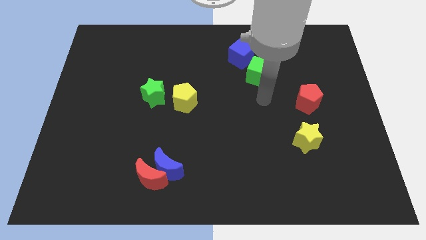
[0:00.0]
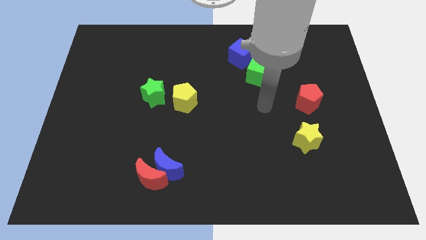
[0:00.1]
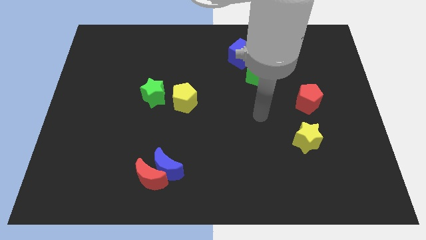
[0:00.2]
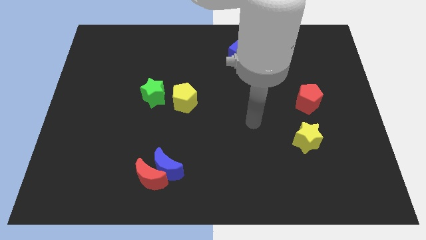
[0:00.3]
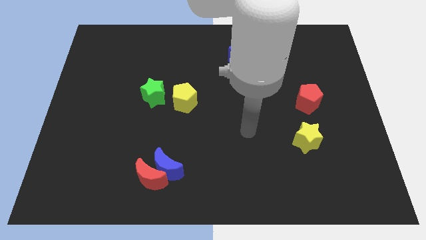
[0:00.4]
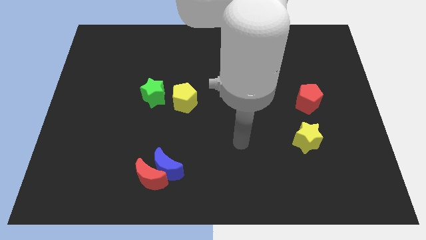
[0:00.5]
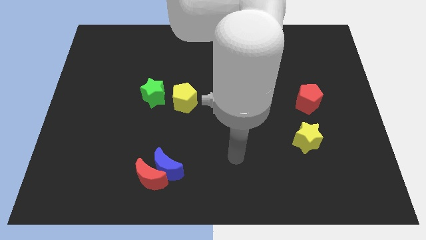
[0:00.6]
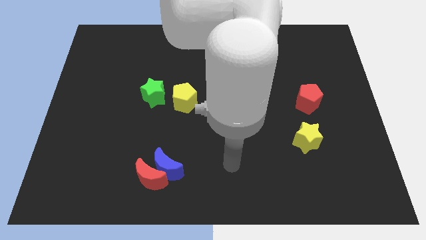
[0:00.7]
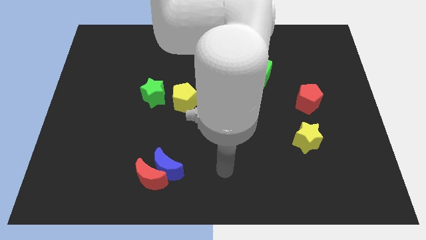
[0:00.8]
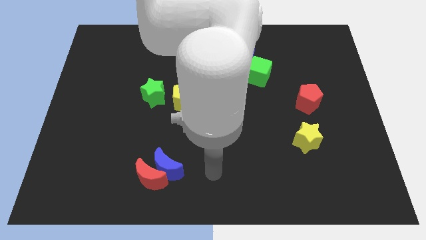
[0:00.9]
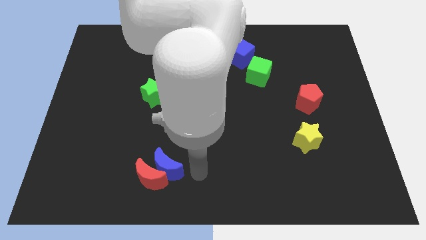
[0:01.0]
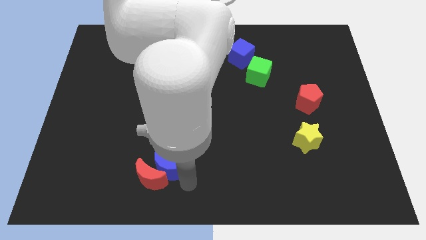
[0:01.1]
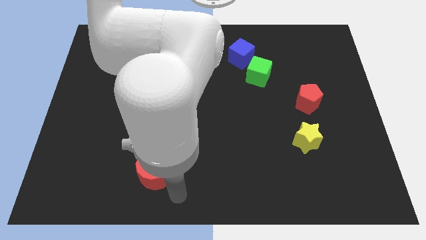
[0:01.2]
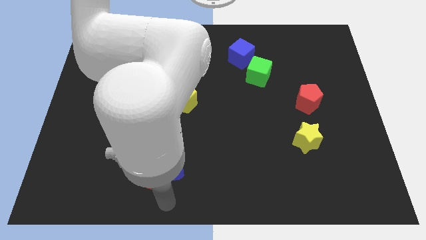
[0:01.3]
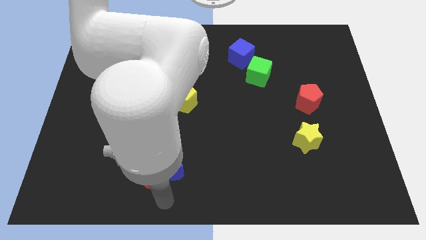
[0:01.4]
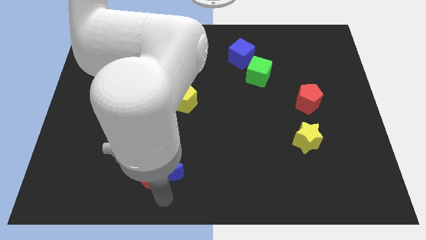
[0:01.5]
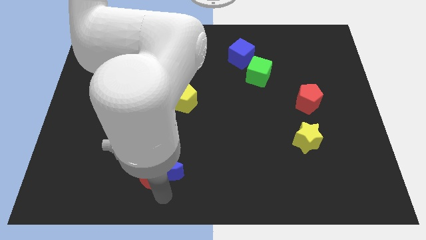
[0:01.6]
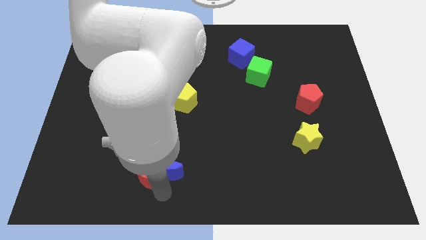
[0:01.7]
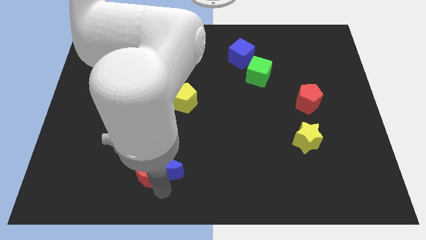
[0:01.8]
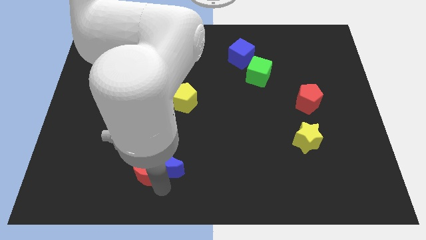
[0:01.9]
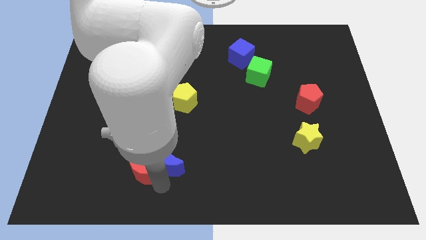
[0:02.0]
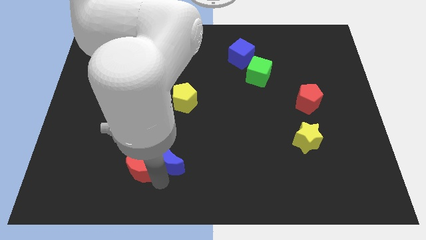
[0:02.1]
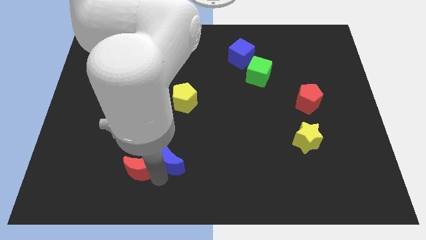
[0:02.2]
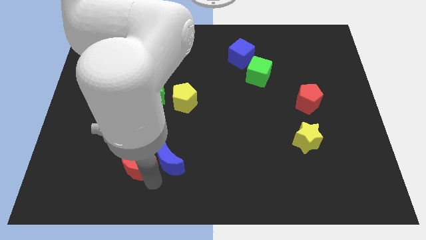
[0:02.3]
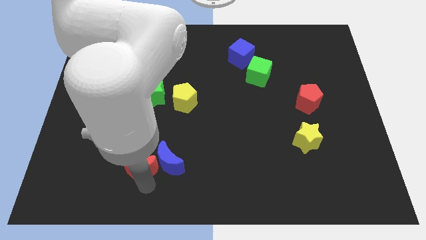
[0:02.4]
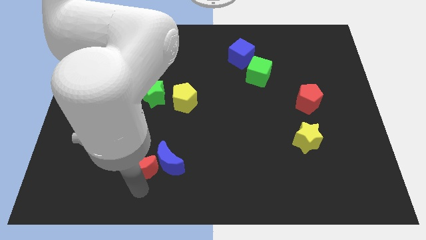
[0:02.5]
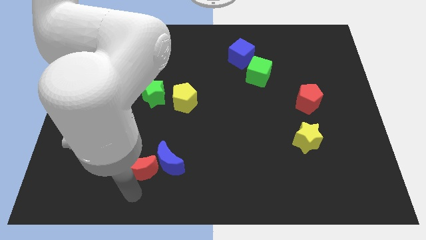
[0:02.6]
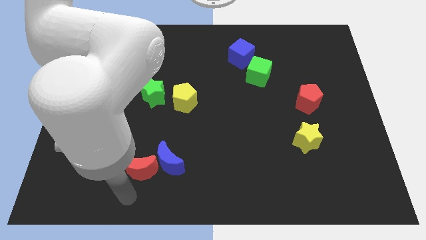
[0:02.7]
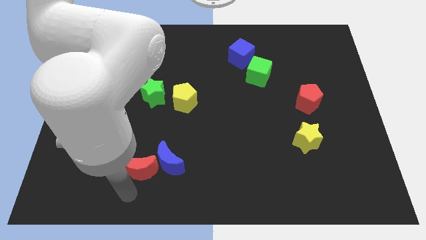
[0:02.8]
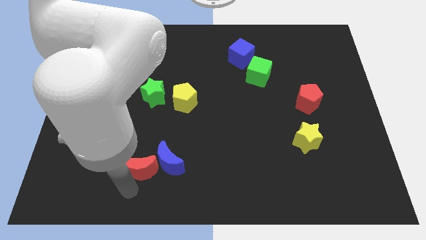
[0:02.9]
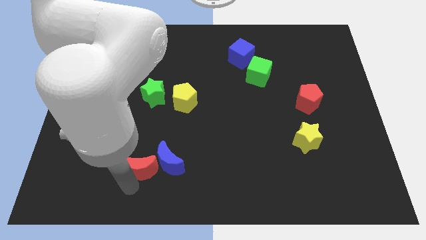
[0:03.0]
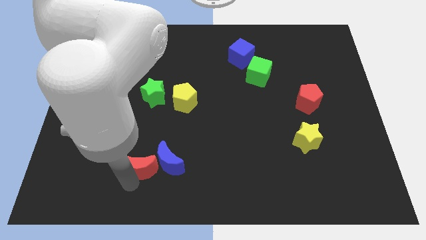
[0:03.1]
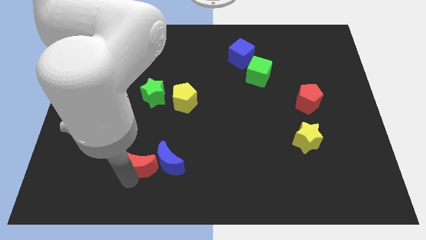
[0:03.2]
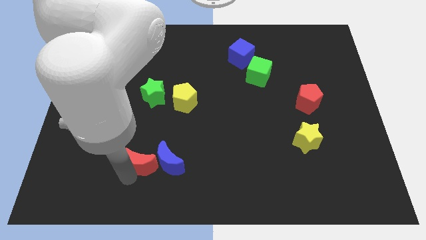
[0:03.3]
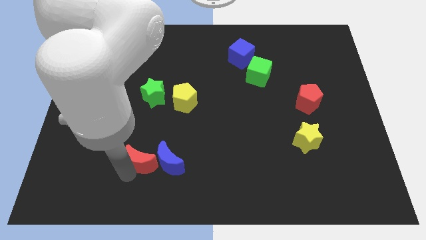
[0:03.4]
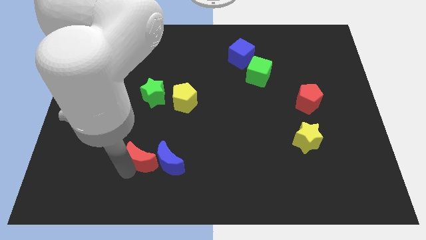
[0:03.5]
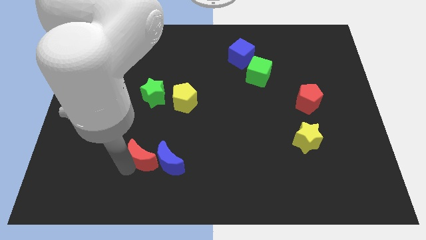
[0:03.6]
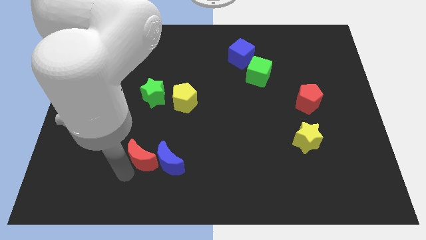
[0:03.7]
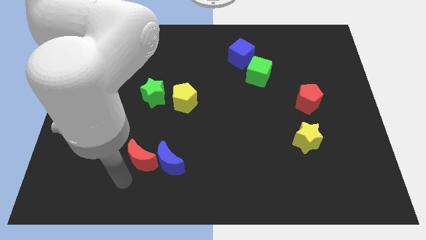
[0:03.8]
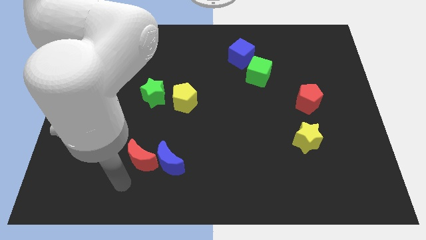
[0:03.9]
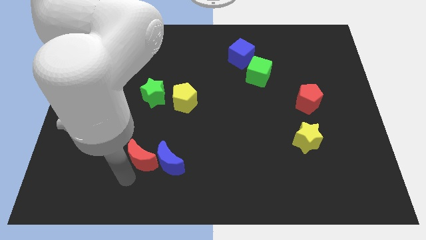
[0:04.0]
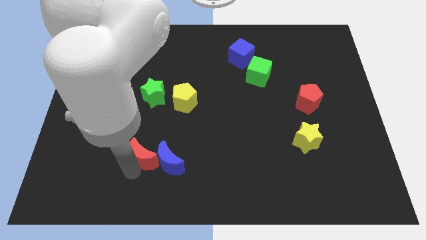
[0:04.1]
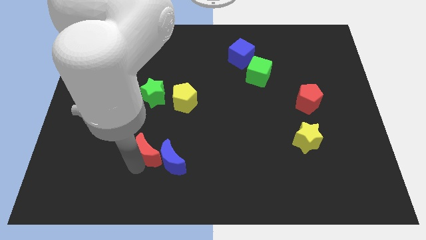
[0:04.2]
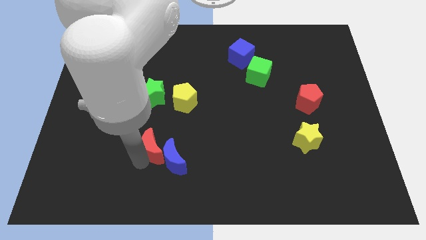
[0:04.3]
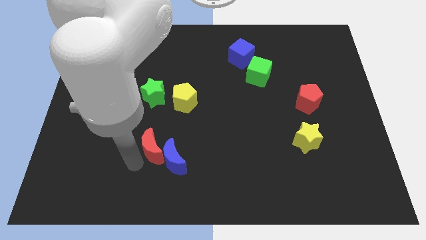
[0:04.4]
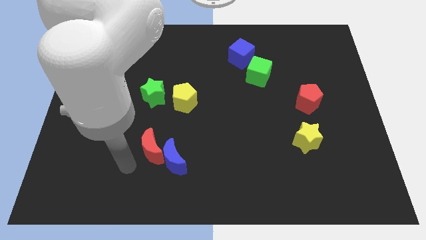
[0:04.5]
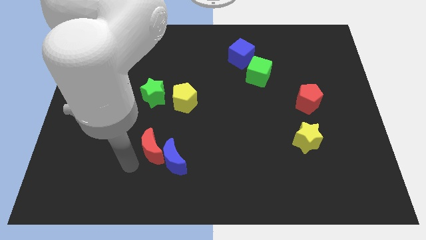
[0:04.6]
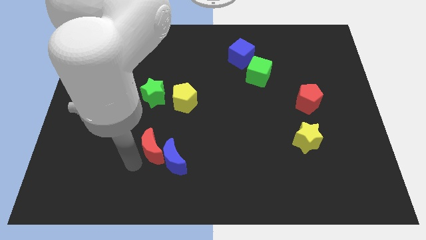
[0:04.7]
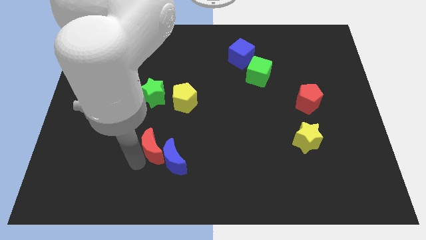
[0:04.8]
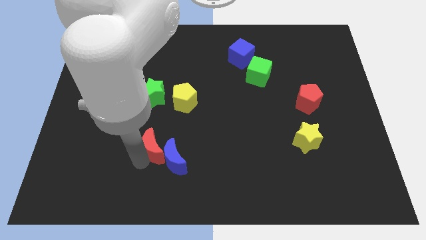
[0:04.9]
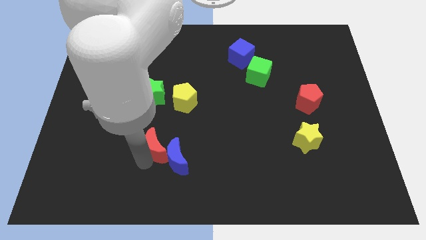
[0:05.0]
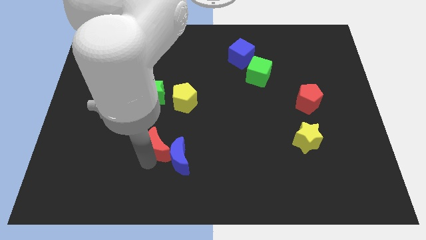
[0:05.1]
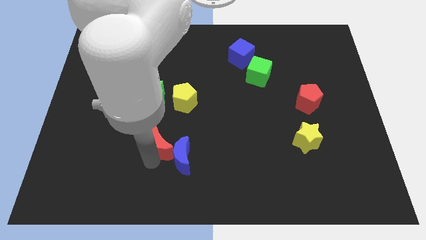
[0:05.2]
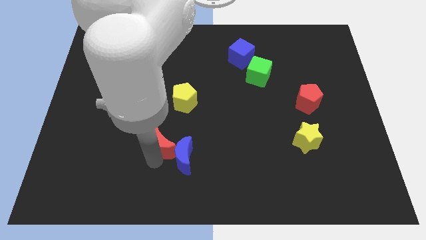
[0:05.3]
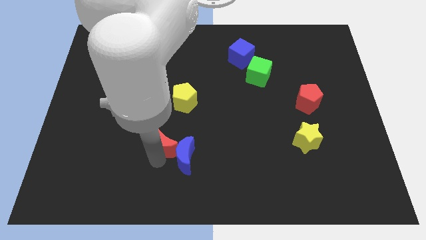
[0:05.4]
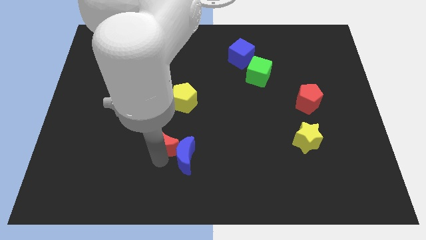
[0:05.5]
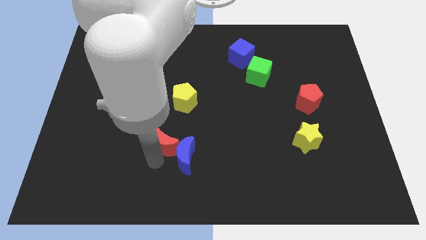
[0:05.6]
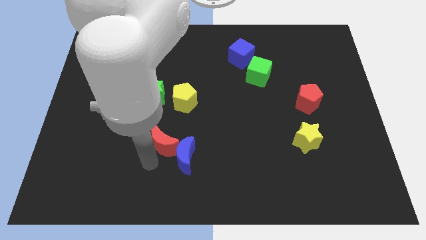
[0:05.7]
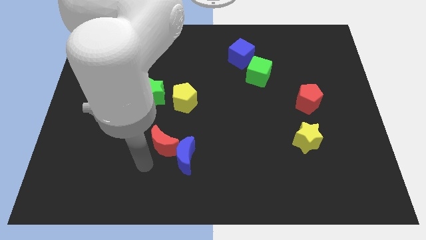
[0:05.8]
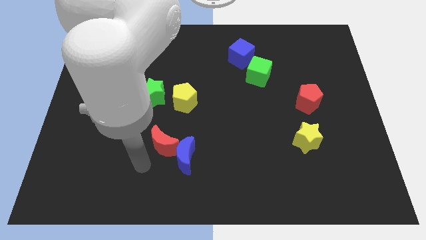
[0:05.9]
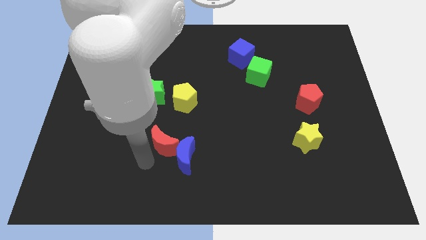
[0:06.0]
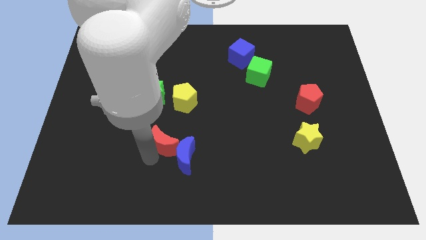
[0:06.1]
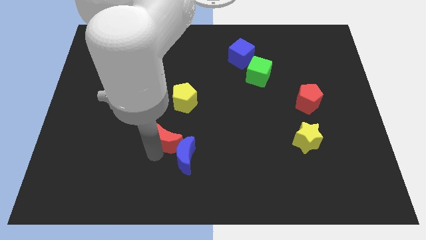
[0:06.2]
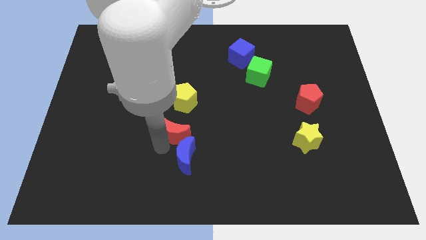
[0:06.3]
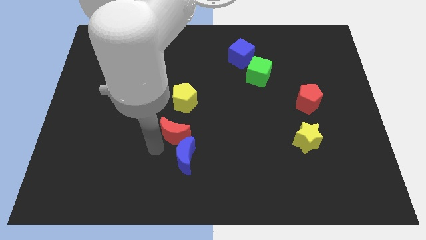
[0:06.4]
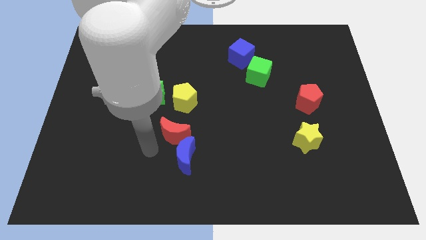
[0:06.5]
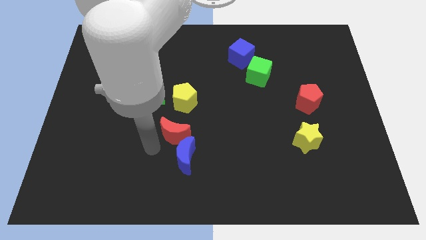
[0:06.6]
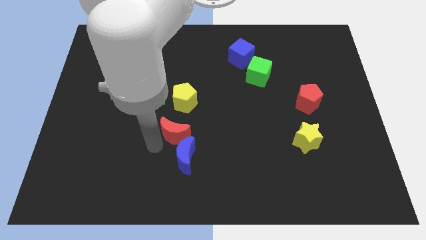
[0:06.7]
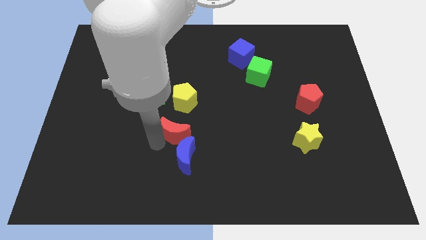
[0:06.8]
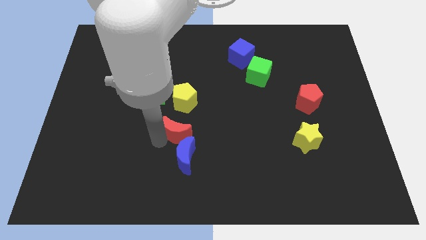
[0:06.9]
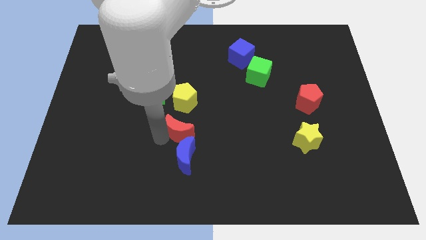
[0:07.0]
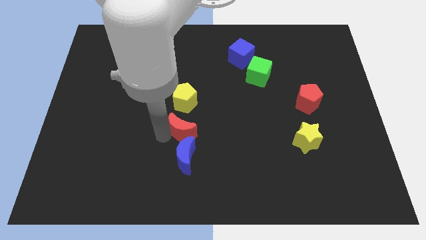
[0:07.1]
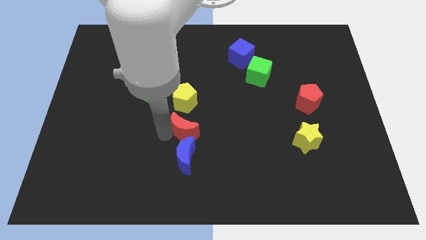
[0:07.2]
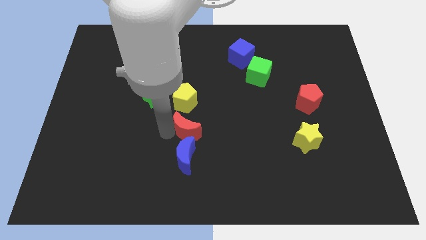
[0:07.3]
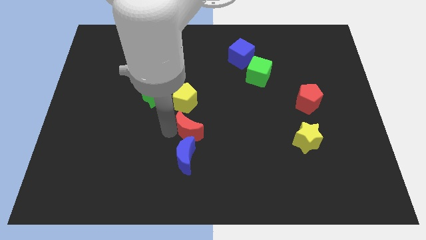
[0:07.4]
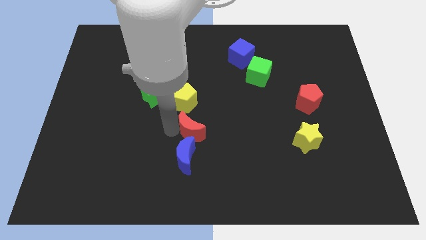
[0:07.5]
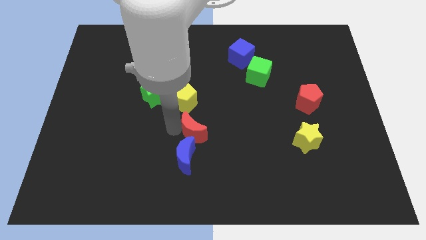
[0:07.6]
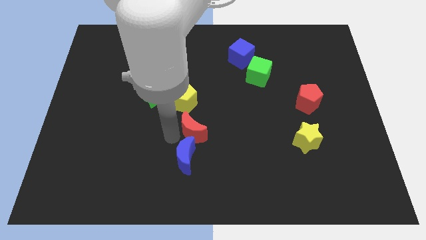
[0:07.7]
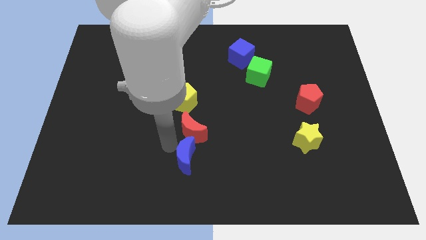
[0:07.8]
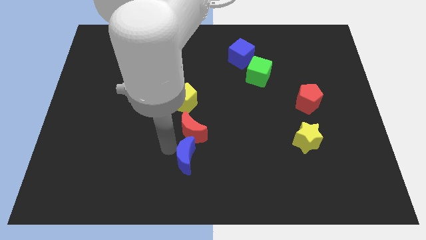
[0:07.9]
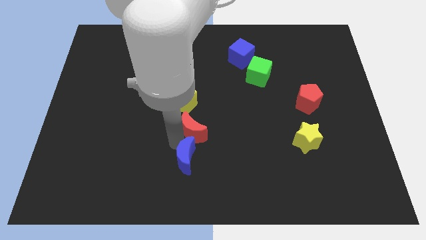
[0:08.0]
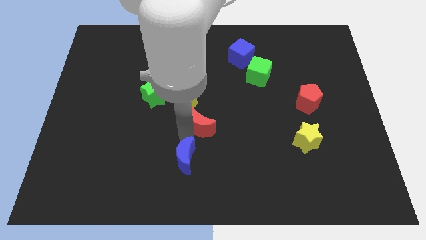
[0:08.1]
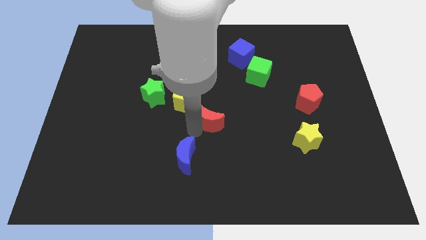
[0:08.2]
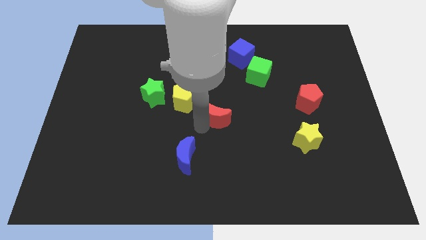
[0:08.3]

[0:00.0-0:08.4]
slide the red moon up and then to the right

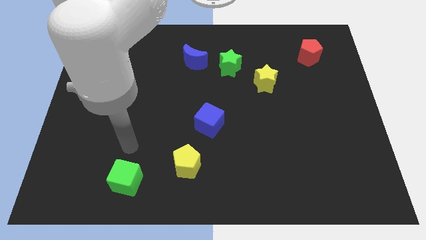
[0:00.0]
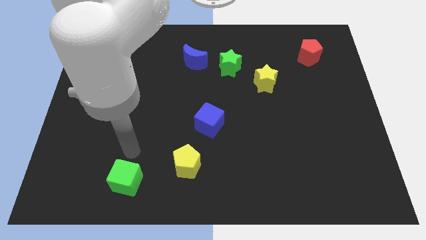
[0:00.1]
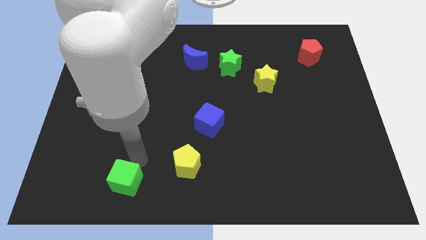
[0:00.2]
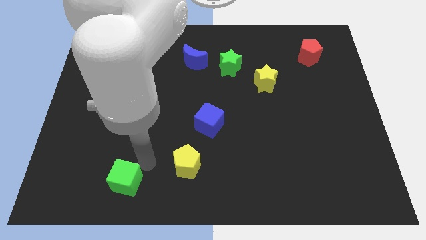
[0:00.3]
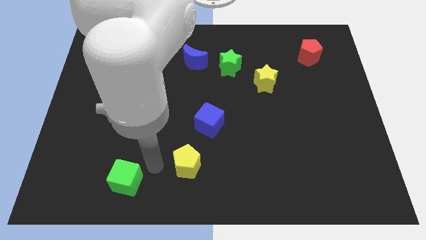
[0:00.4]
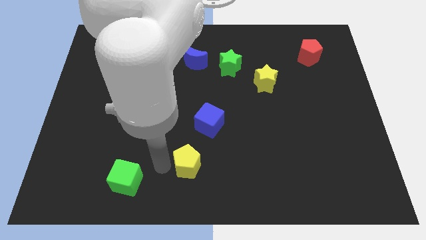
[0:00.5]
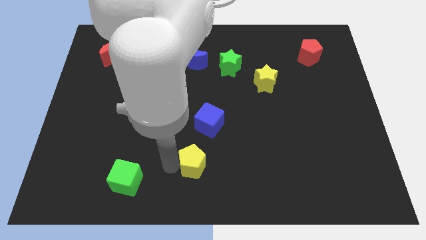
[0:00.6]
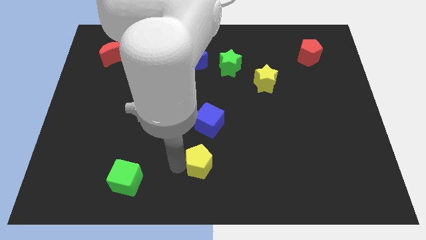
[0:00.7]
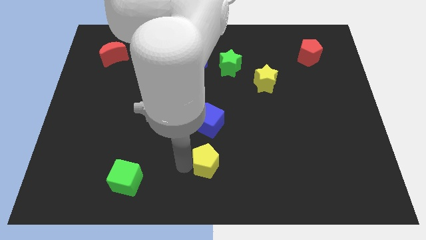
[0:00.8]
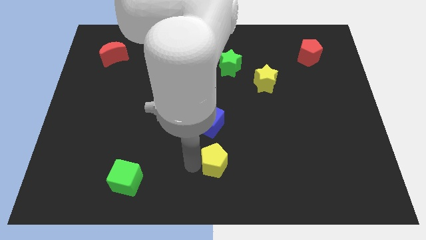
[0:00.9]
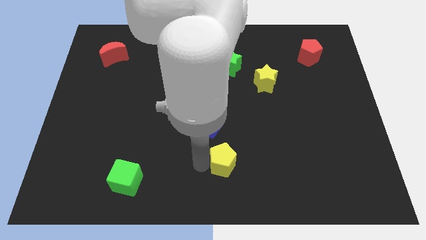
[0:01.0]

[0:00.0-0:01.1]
slide the yellow pentagon right a little bit
